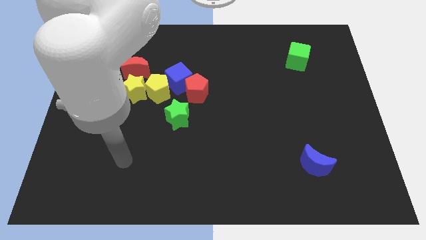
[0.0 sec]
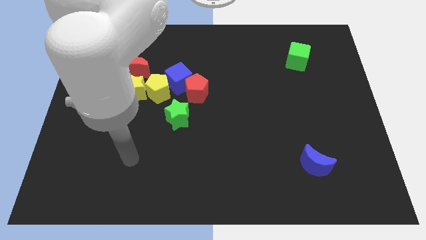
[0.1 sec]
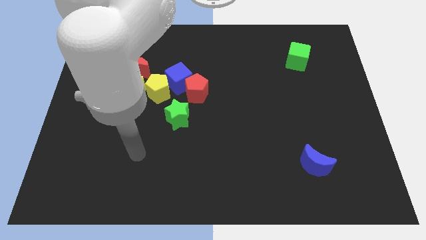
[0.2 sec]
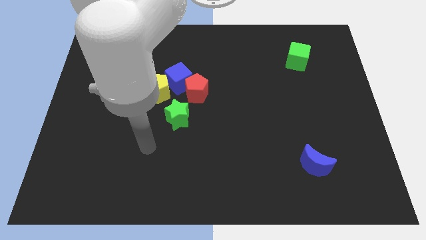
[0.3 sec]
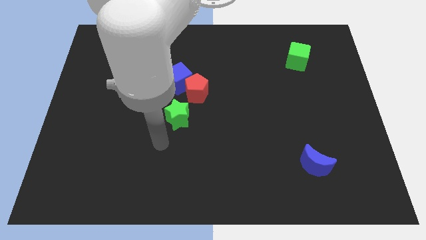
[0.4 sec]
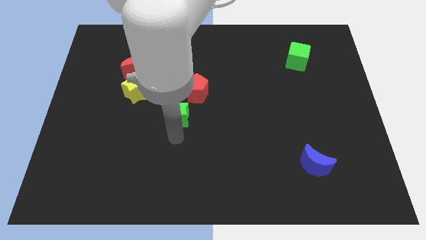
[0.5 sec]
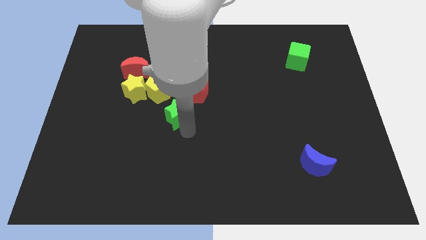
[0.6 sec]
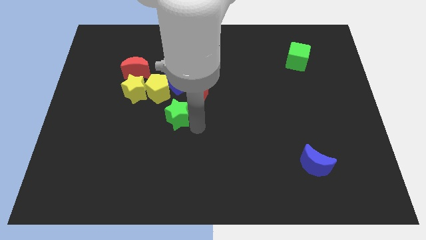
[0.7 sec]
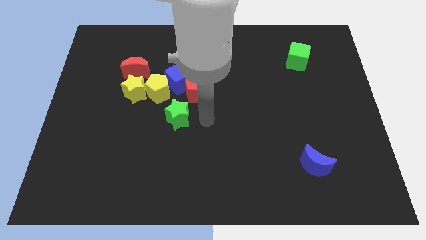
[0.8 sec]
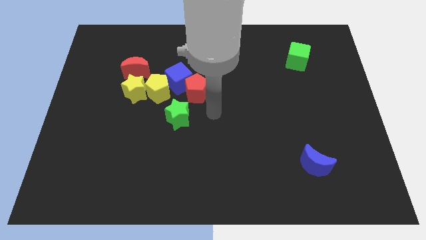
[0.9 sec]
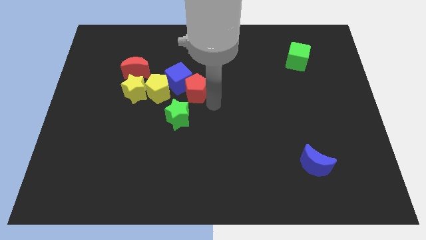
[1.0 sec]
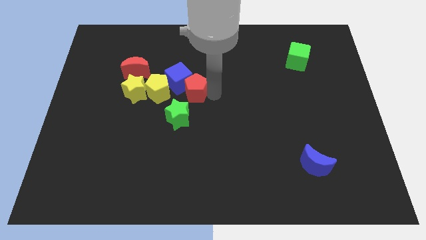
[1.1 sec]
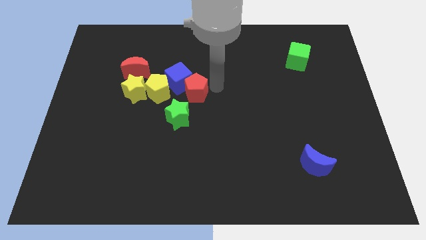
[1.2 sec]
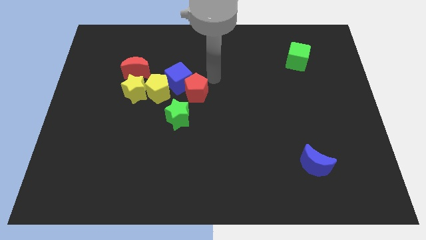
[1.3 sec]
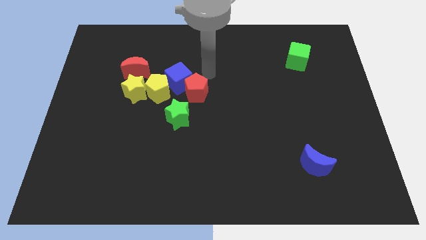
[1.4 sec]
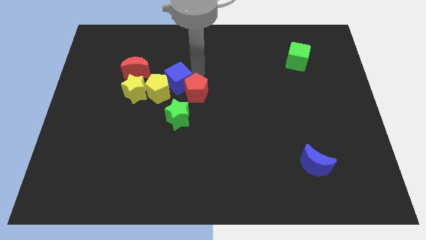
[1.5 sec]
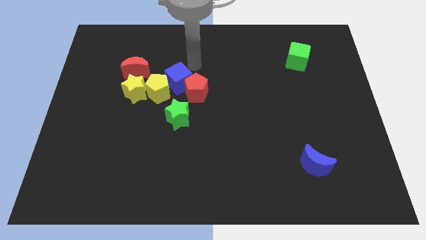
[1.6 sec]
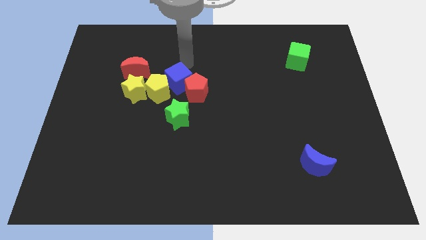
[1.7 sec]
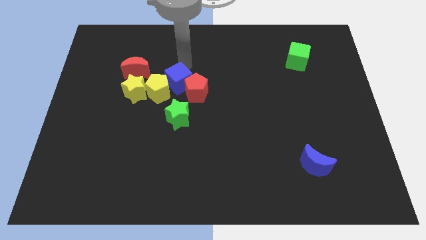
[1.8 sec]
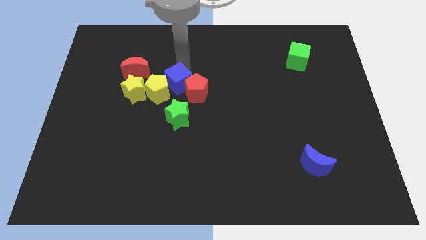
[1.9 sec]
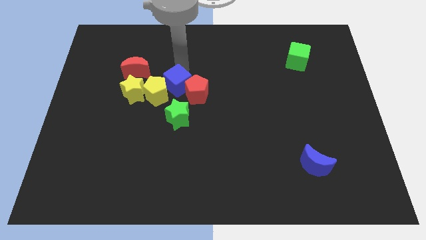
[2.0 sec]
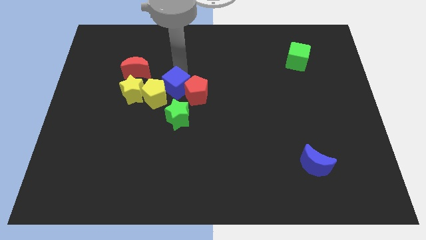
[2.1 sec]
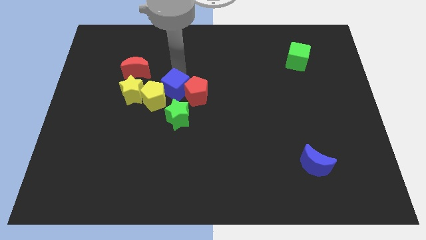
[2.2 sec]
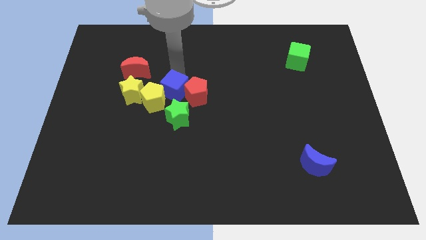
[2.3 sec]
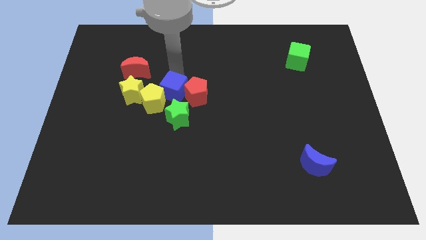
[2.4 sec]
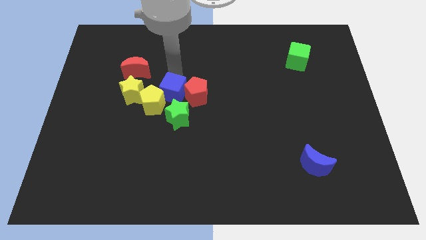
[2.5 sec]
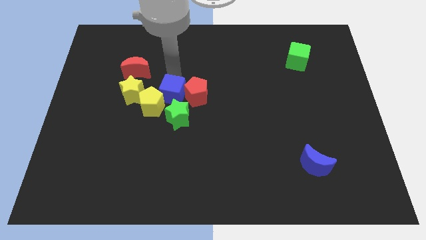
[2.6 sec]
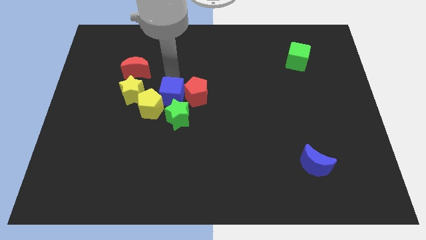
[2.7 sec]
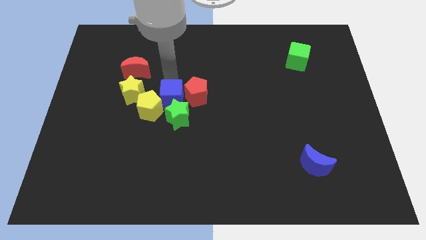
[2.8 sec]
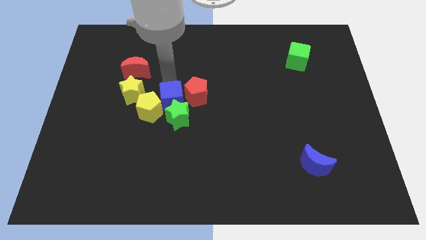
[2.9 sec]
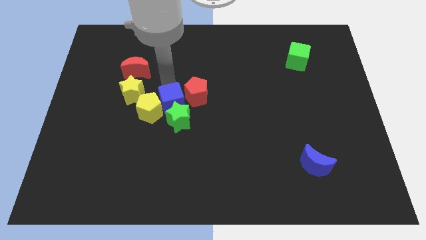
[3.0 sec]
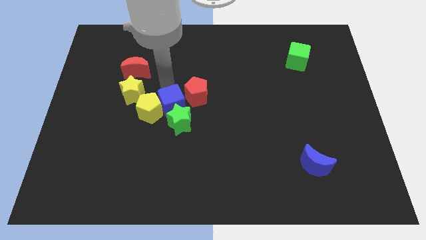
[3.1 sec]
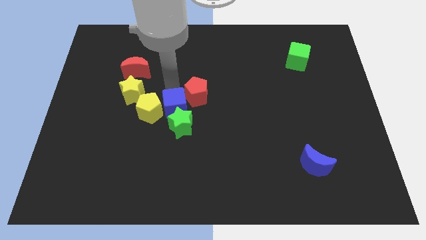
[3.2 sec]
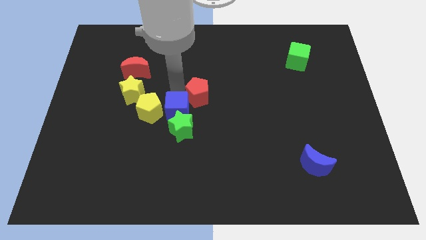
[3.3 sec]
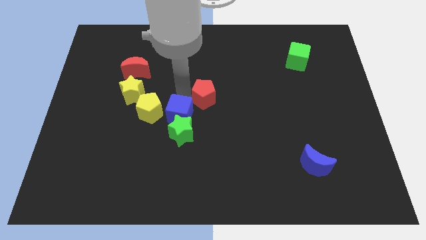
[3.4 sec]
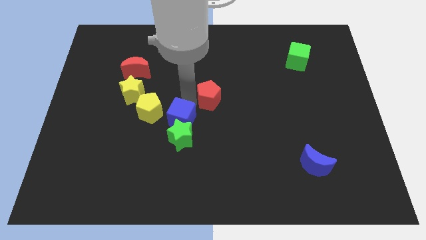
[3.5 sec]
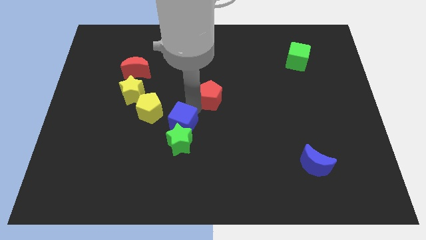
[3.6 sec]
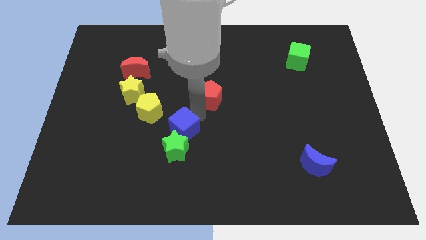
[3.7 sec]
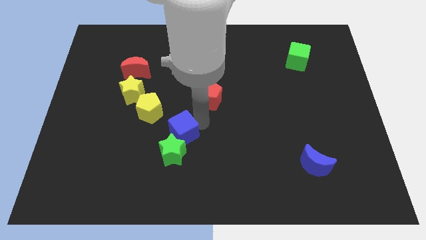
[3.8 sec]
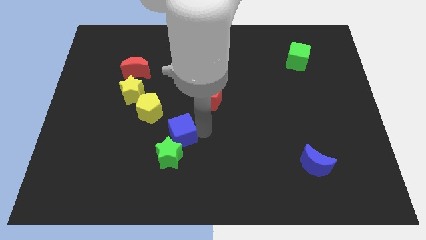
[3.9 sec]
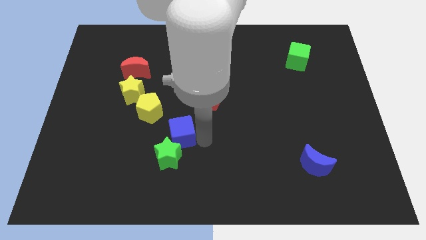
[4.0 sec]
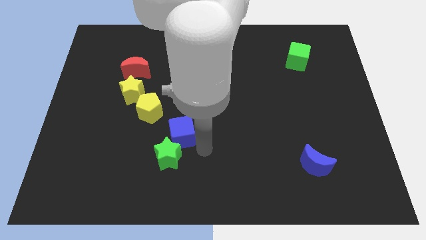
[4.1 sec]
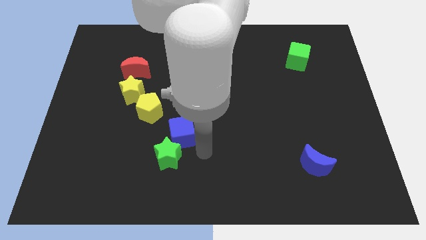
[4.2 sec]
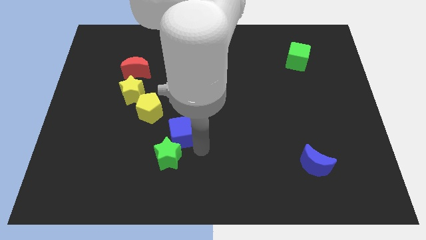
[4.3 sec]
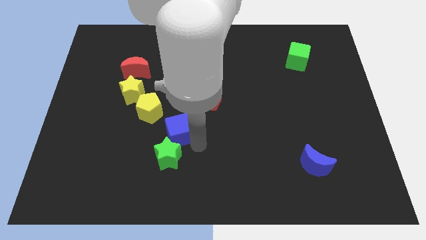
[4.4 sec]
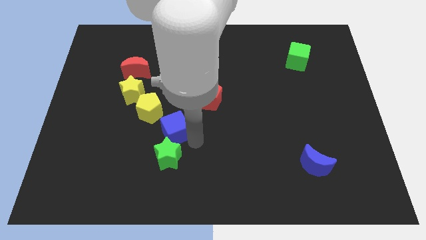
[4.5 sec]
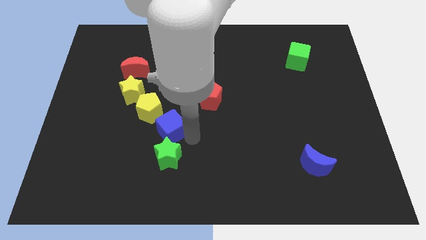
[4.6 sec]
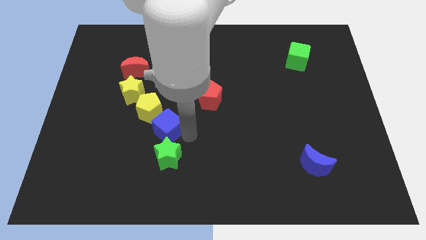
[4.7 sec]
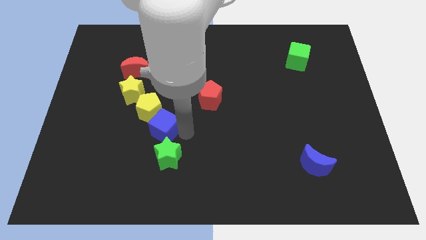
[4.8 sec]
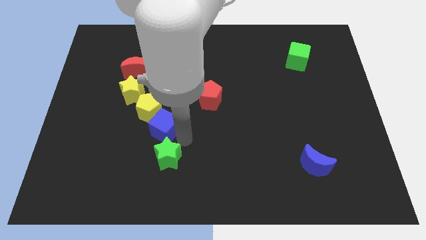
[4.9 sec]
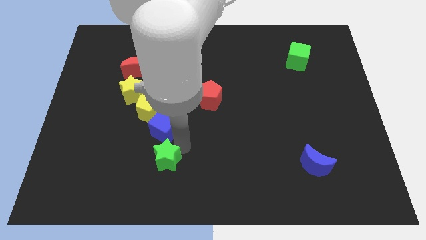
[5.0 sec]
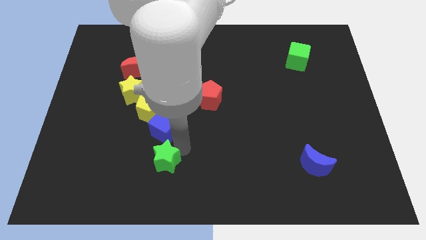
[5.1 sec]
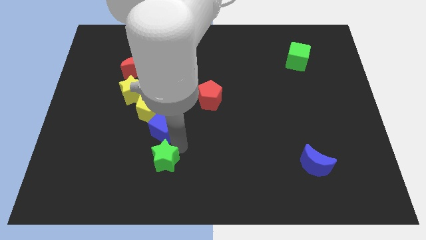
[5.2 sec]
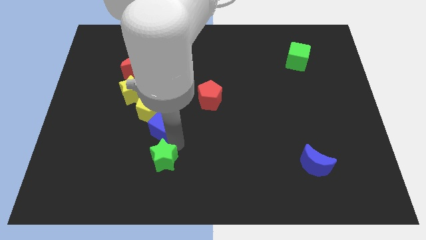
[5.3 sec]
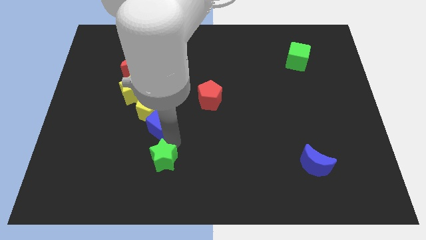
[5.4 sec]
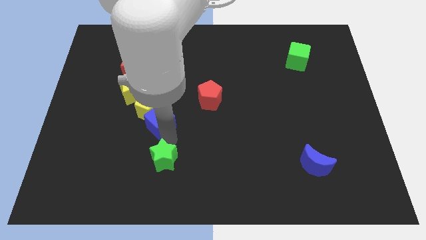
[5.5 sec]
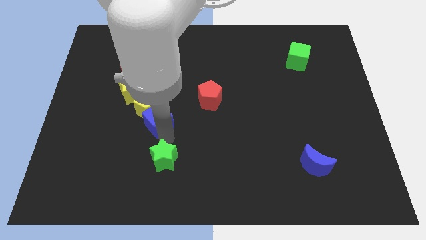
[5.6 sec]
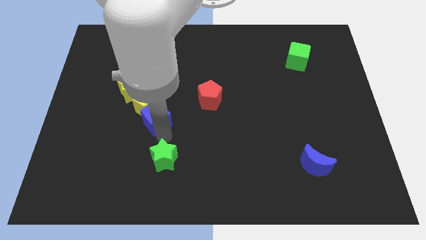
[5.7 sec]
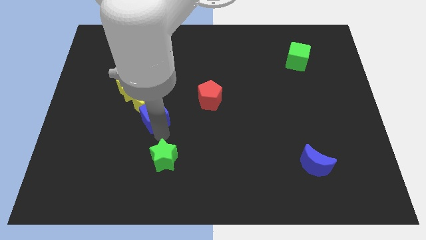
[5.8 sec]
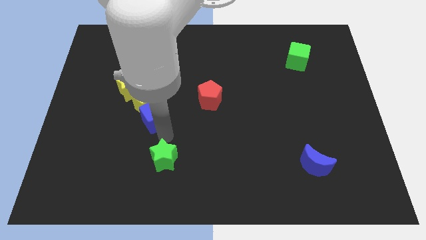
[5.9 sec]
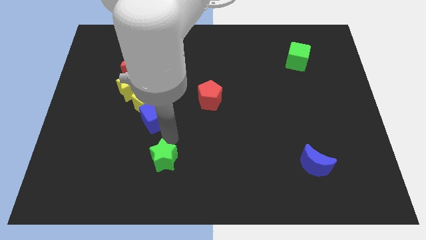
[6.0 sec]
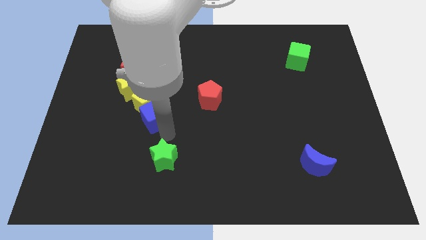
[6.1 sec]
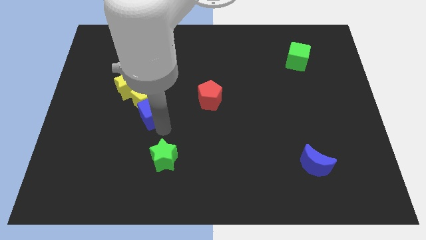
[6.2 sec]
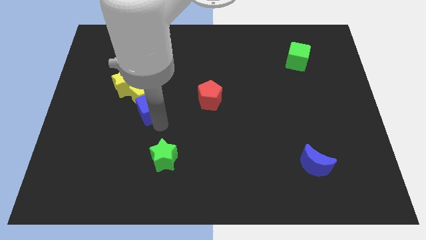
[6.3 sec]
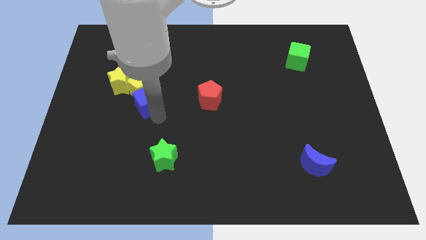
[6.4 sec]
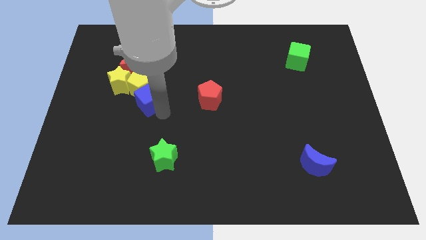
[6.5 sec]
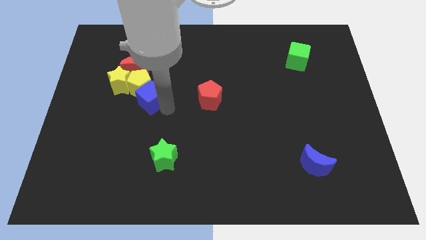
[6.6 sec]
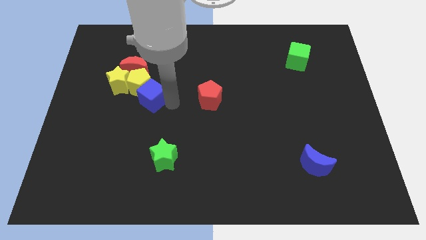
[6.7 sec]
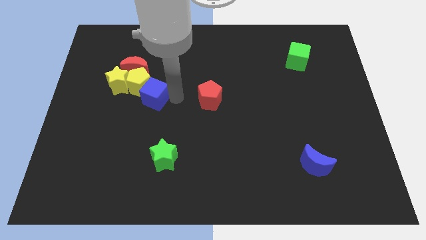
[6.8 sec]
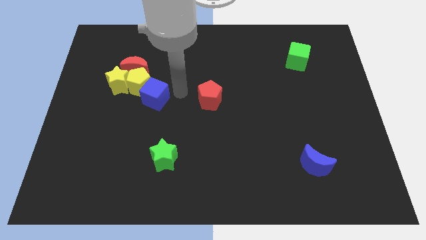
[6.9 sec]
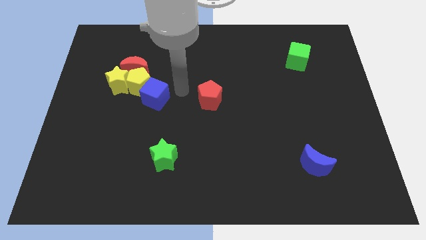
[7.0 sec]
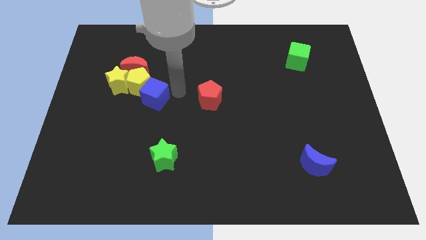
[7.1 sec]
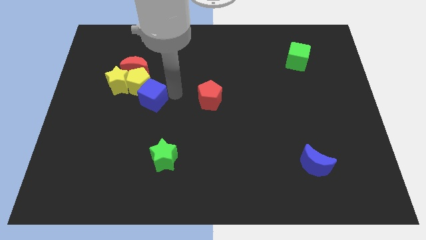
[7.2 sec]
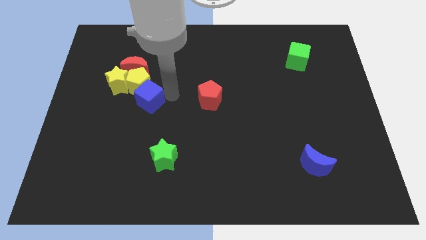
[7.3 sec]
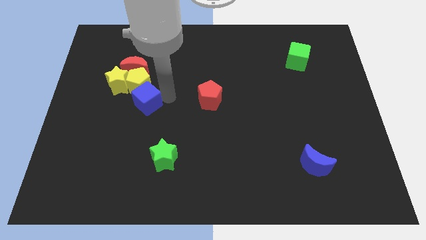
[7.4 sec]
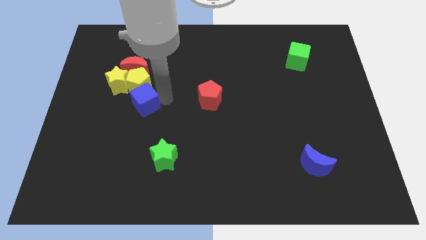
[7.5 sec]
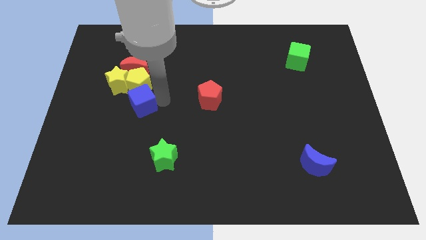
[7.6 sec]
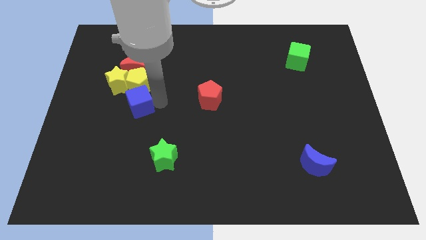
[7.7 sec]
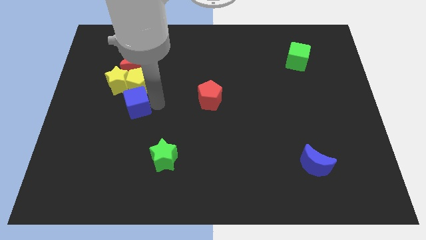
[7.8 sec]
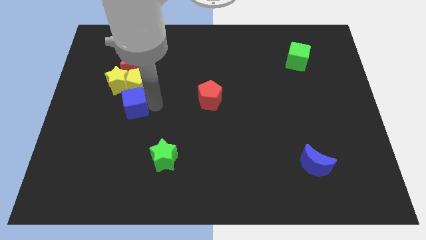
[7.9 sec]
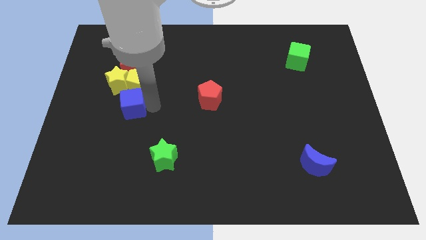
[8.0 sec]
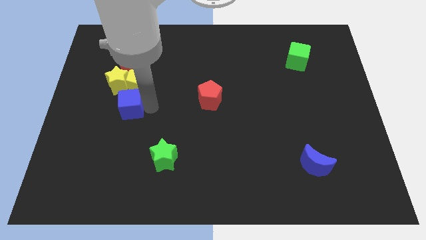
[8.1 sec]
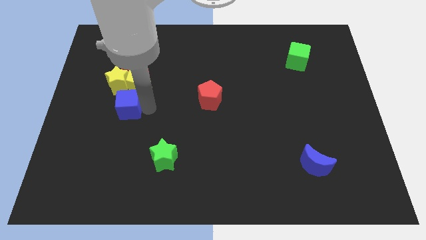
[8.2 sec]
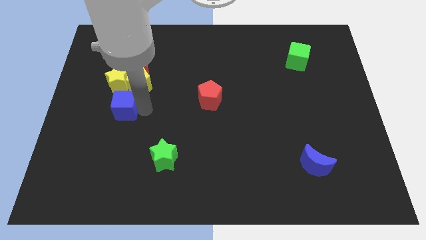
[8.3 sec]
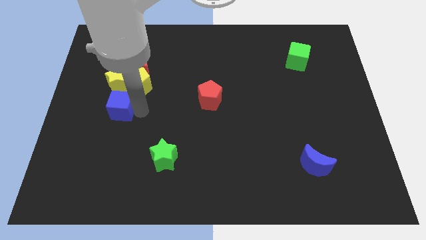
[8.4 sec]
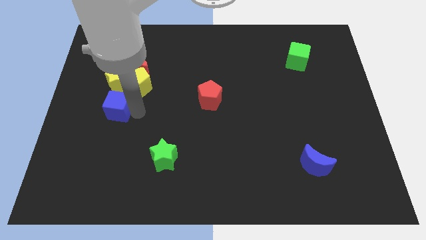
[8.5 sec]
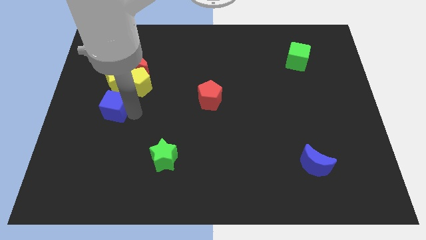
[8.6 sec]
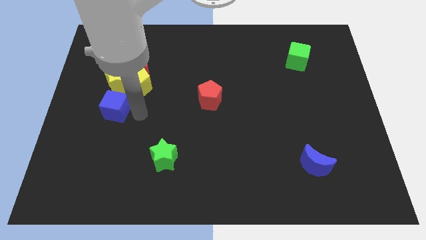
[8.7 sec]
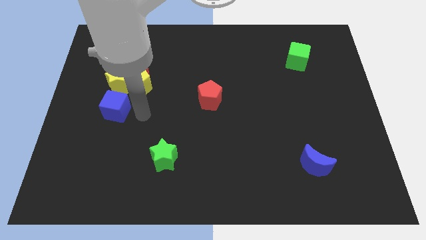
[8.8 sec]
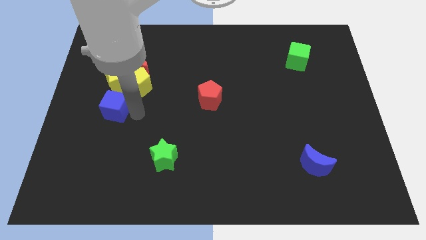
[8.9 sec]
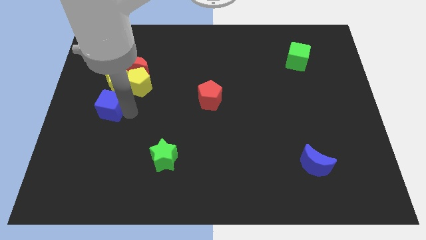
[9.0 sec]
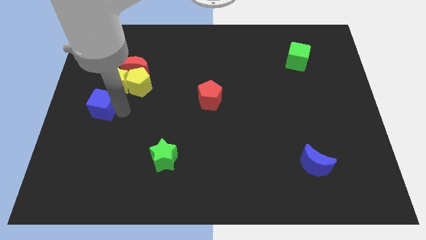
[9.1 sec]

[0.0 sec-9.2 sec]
slide the blue cube to the left side
